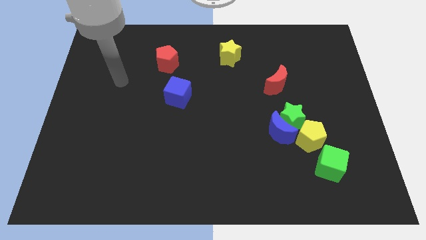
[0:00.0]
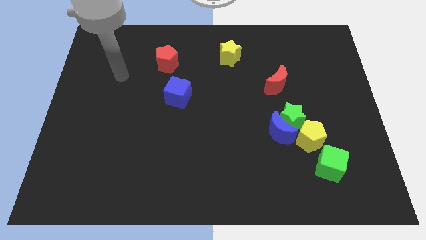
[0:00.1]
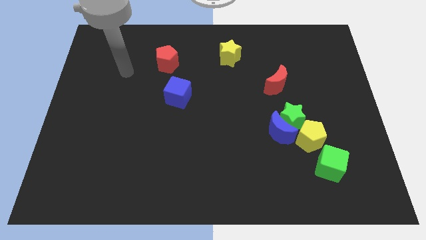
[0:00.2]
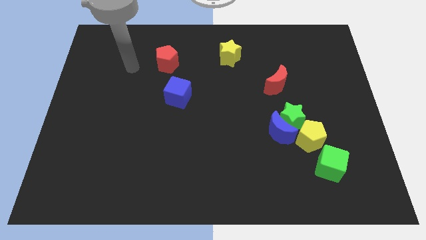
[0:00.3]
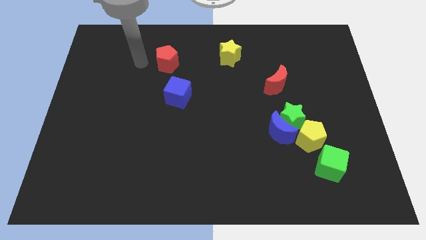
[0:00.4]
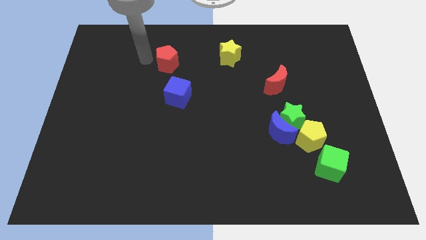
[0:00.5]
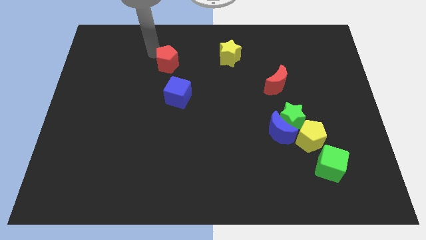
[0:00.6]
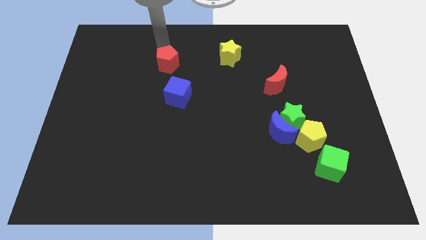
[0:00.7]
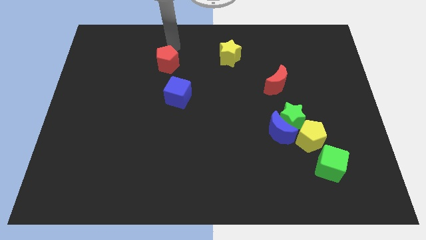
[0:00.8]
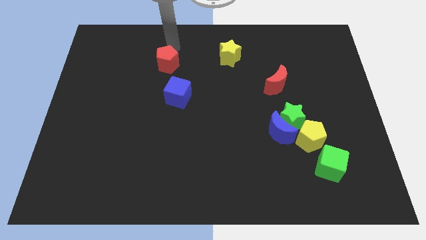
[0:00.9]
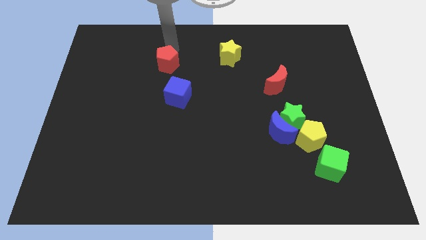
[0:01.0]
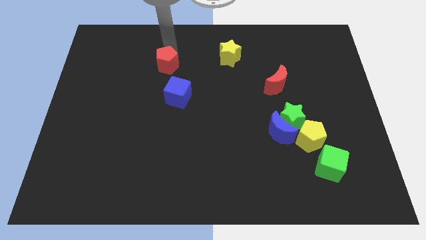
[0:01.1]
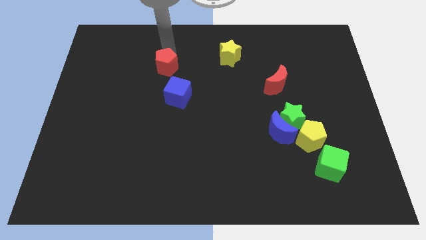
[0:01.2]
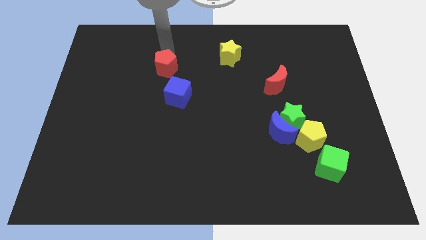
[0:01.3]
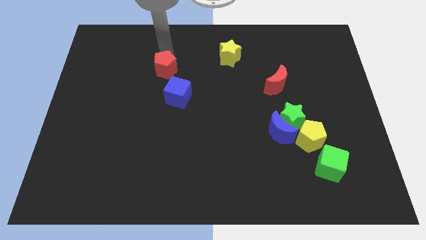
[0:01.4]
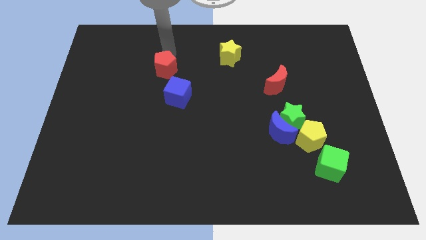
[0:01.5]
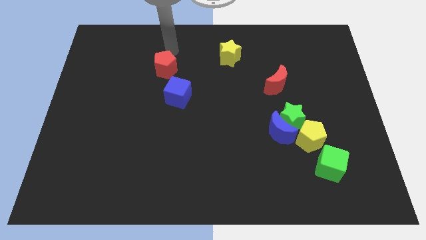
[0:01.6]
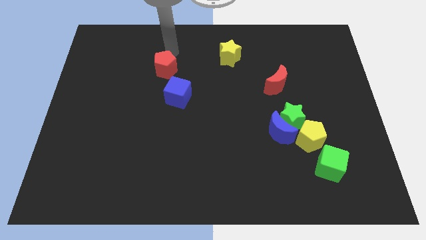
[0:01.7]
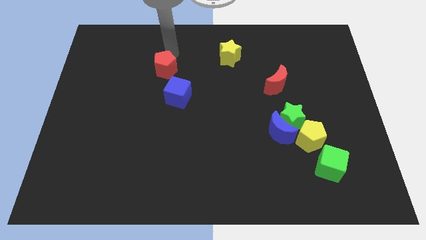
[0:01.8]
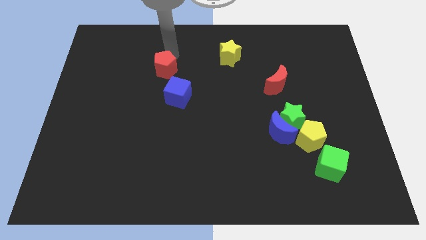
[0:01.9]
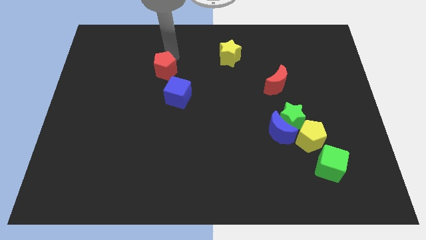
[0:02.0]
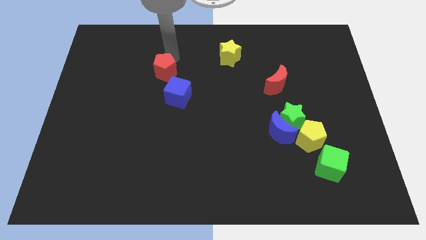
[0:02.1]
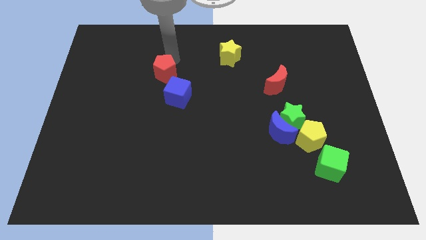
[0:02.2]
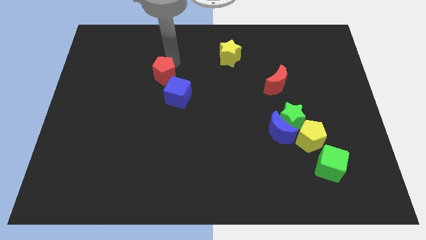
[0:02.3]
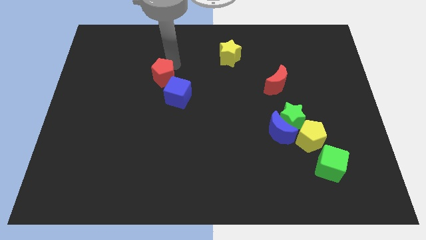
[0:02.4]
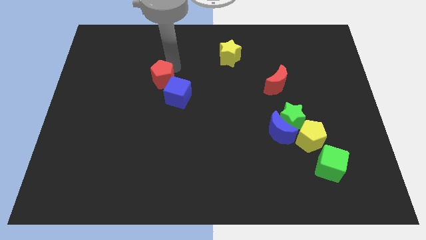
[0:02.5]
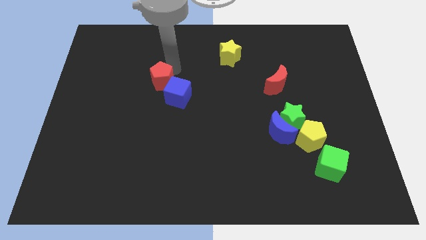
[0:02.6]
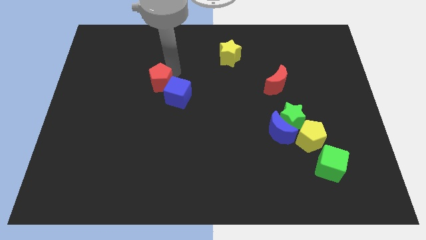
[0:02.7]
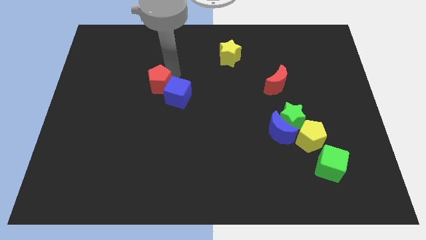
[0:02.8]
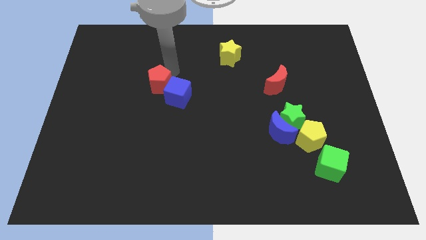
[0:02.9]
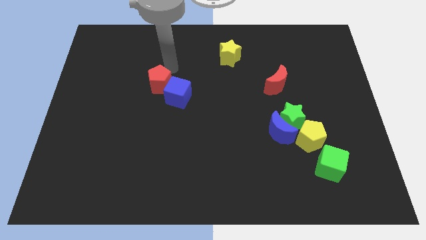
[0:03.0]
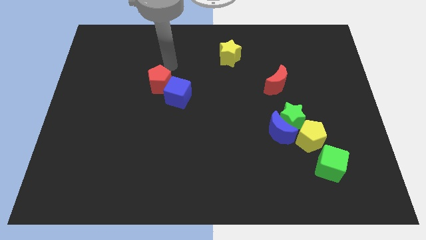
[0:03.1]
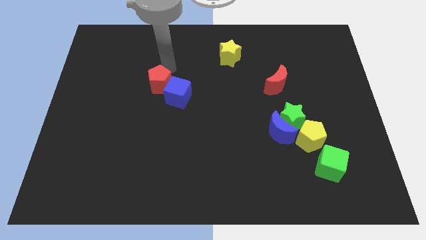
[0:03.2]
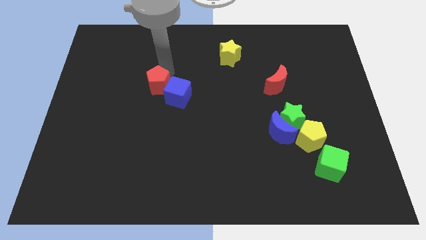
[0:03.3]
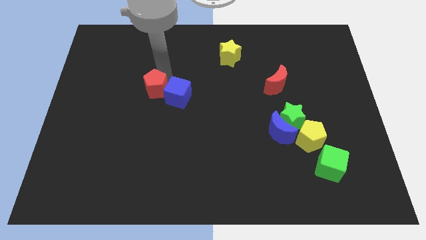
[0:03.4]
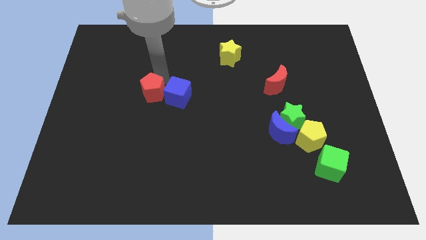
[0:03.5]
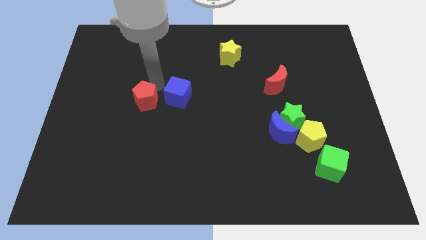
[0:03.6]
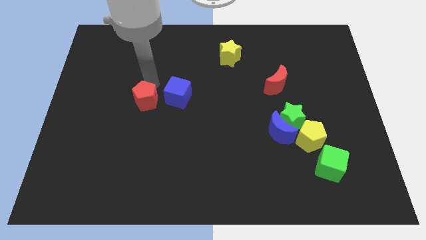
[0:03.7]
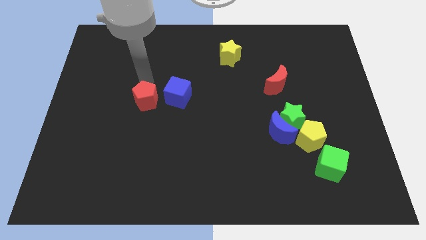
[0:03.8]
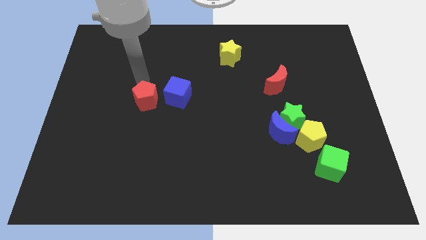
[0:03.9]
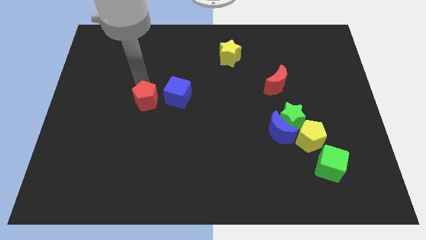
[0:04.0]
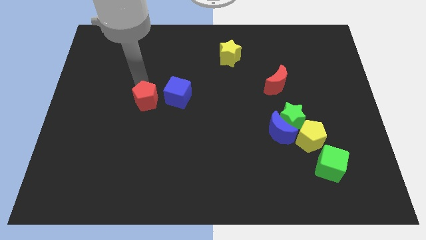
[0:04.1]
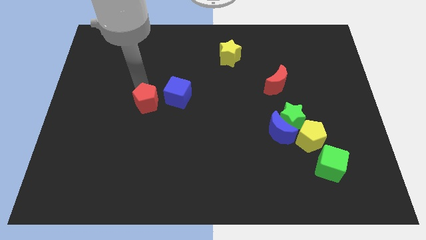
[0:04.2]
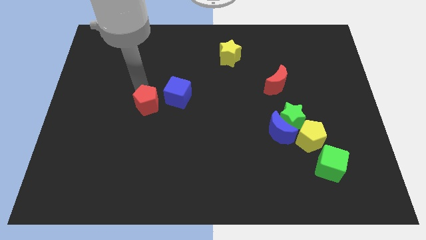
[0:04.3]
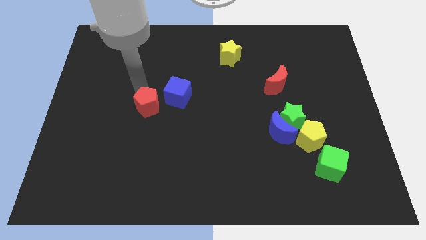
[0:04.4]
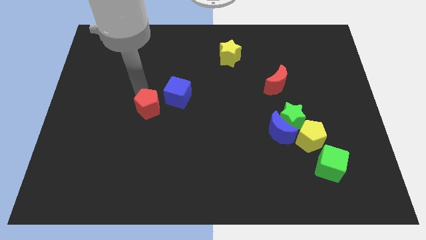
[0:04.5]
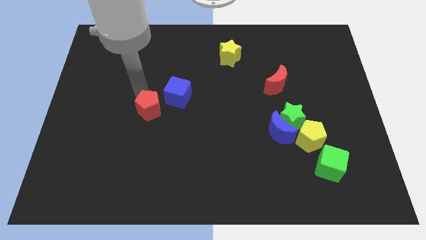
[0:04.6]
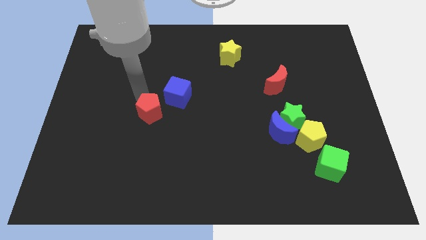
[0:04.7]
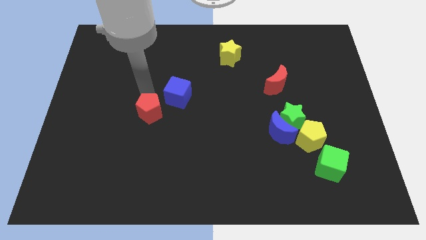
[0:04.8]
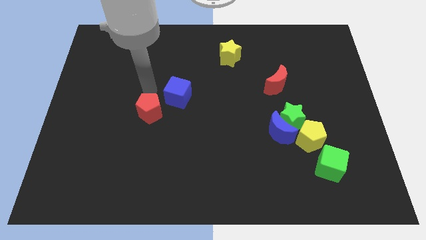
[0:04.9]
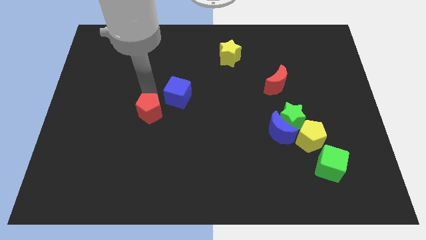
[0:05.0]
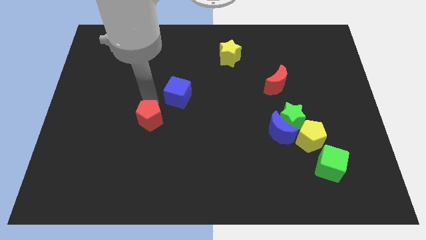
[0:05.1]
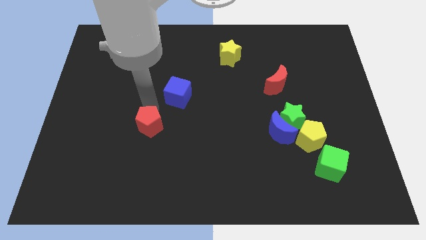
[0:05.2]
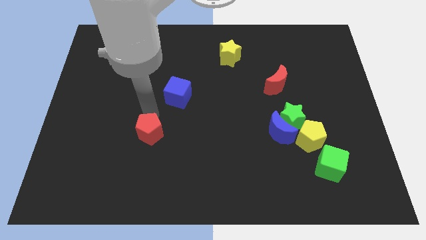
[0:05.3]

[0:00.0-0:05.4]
move the red pentagon downwards

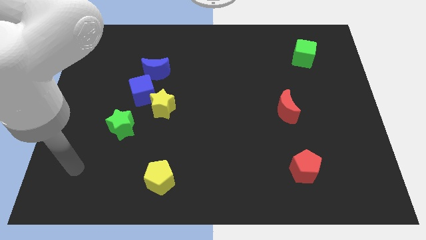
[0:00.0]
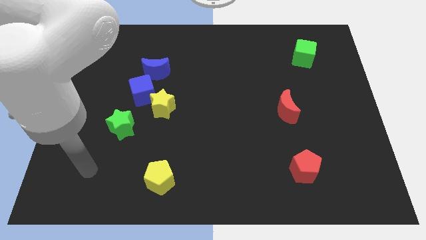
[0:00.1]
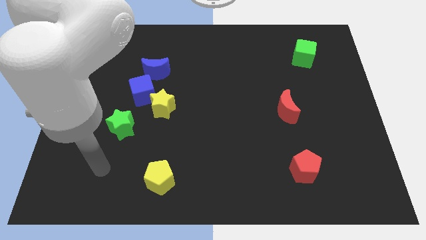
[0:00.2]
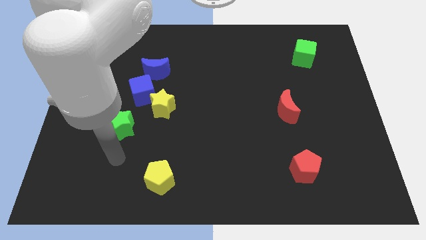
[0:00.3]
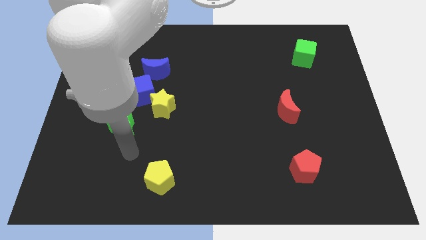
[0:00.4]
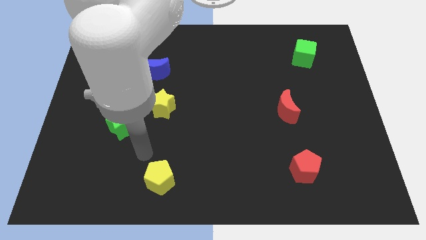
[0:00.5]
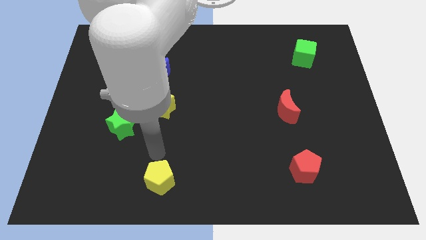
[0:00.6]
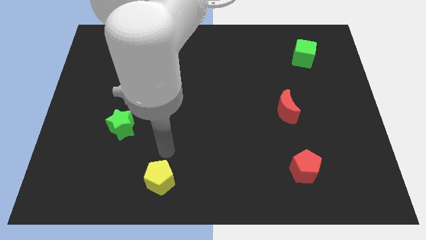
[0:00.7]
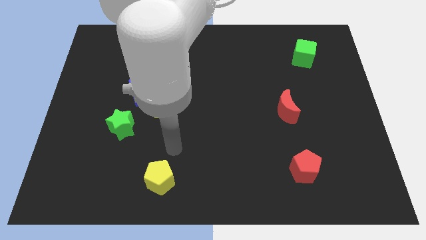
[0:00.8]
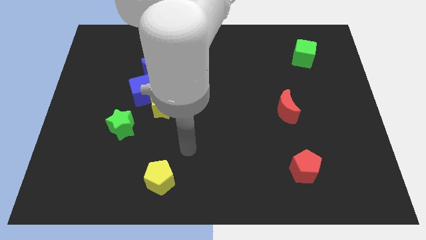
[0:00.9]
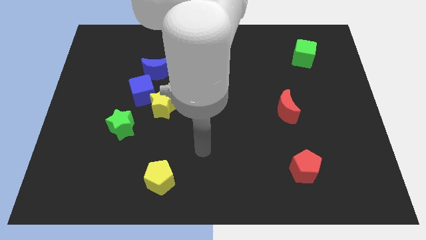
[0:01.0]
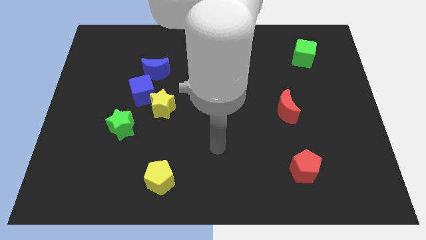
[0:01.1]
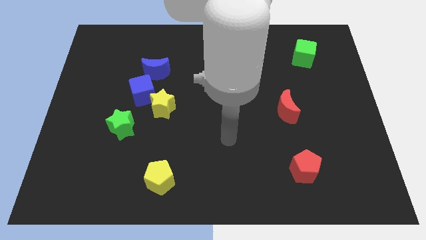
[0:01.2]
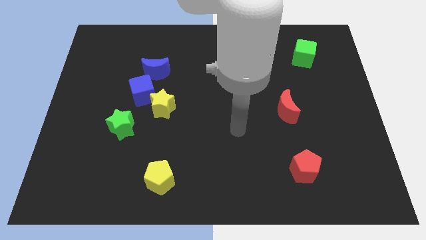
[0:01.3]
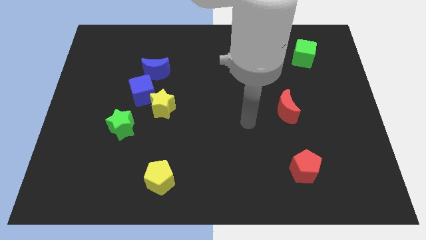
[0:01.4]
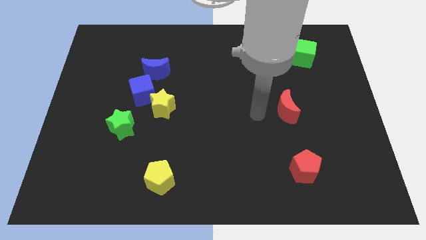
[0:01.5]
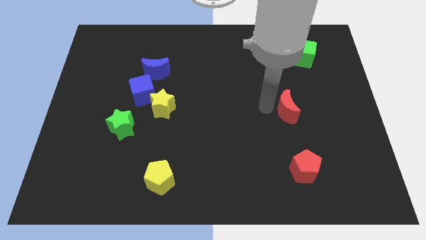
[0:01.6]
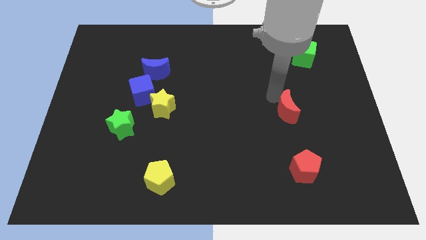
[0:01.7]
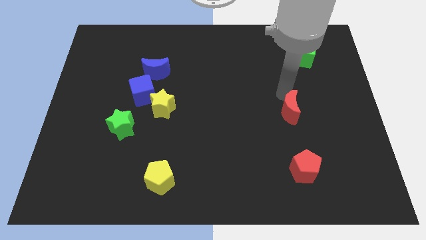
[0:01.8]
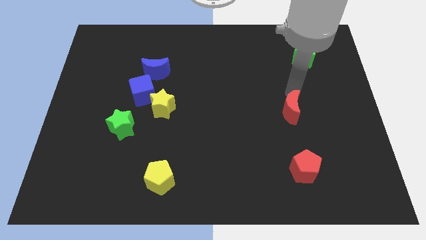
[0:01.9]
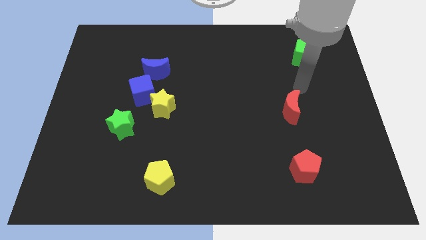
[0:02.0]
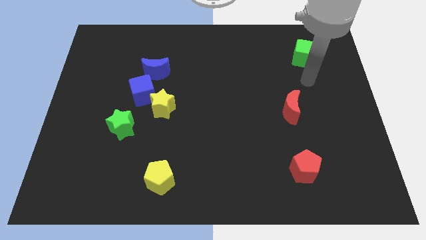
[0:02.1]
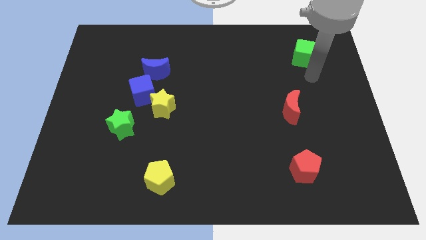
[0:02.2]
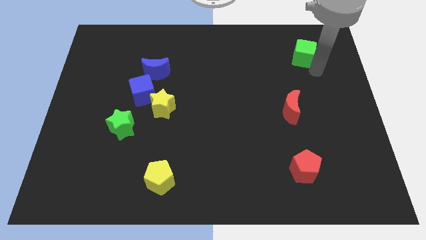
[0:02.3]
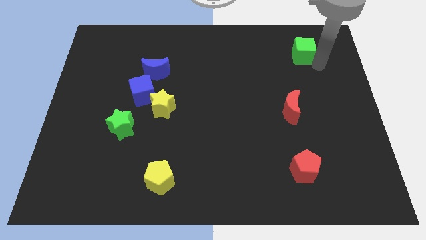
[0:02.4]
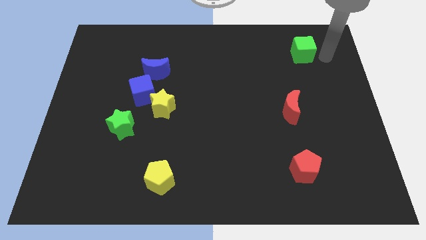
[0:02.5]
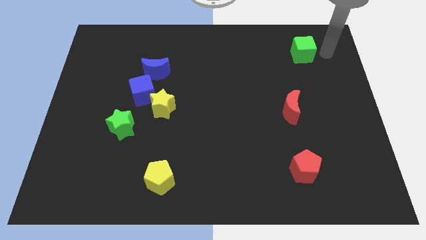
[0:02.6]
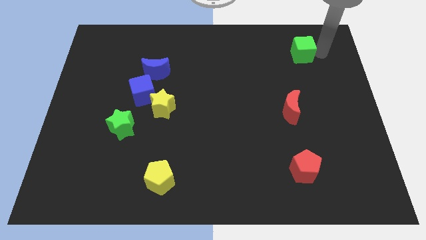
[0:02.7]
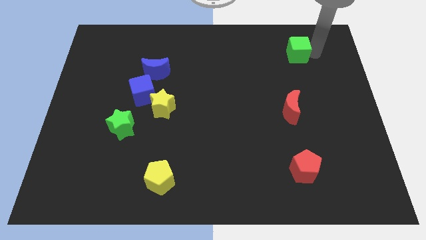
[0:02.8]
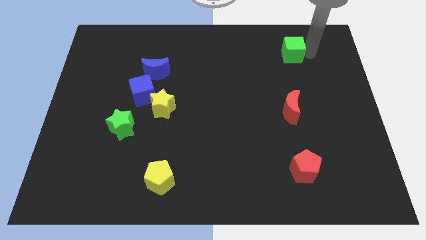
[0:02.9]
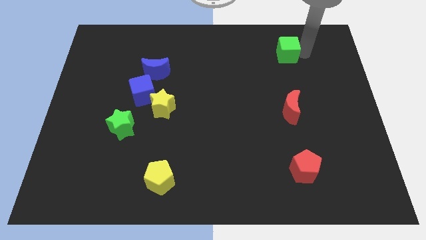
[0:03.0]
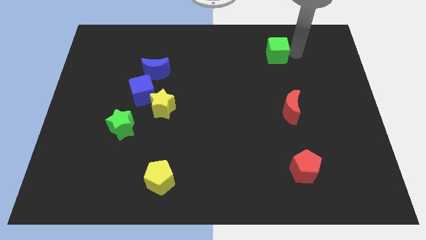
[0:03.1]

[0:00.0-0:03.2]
slide the green cube somewhat left
